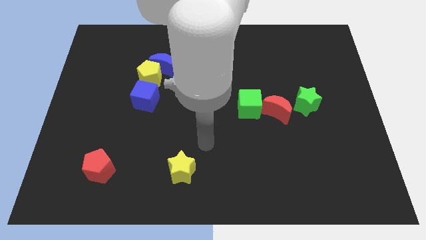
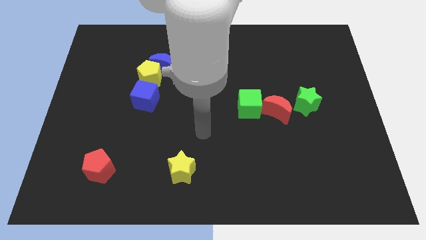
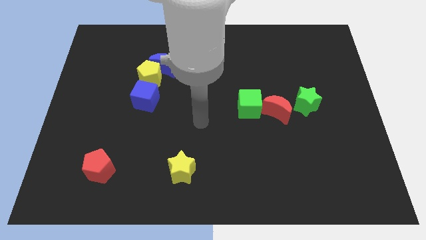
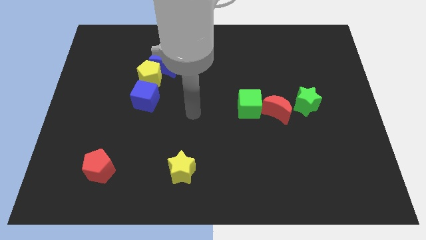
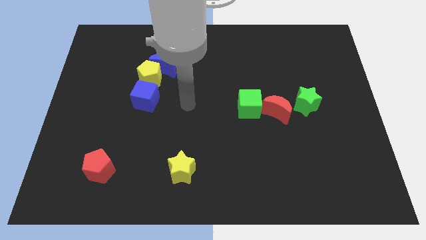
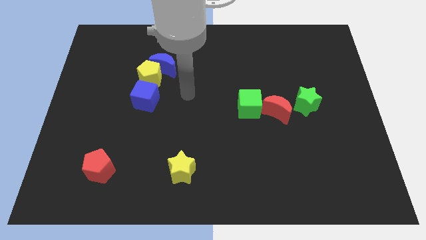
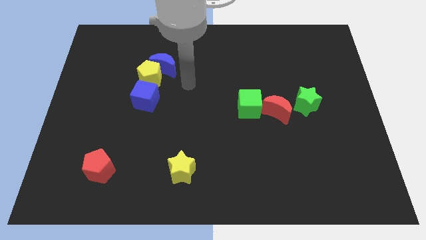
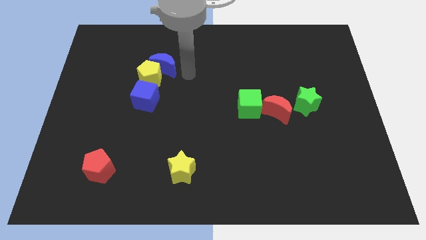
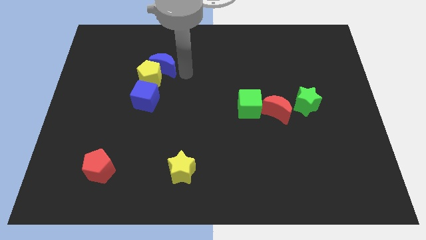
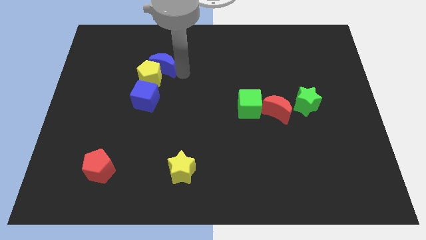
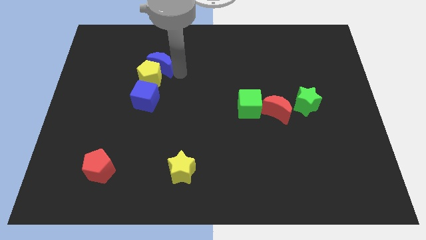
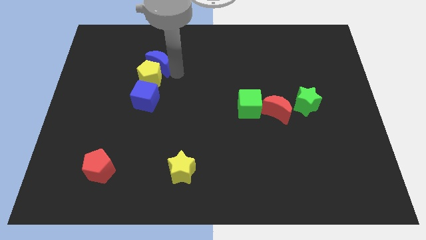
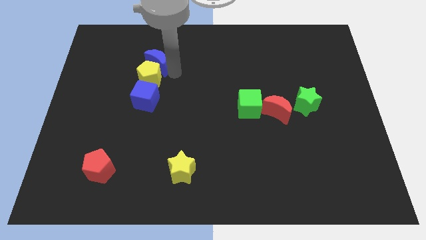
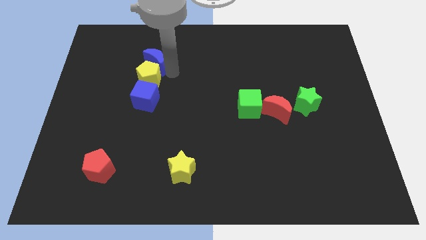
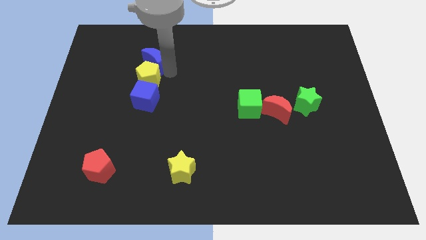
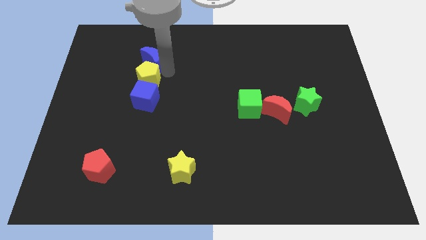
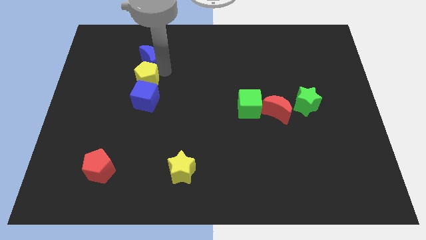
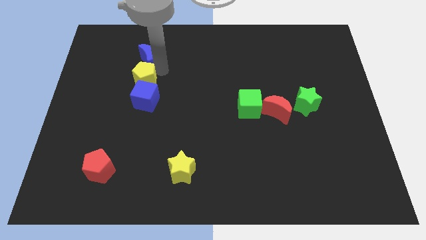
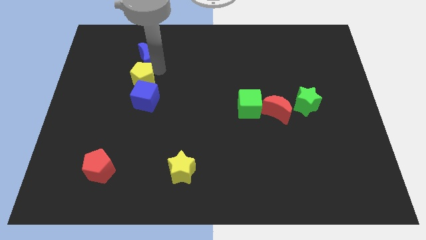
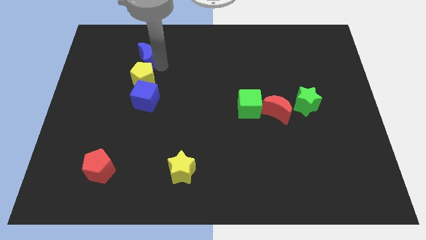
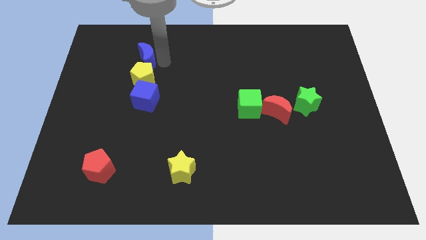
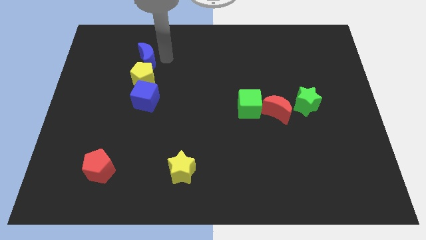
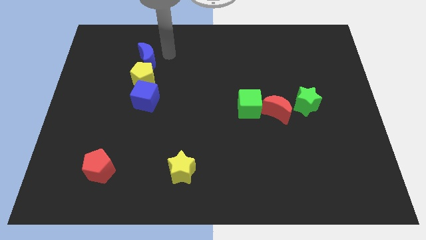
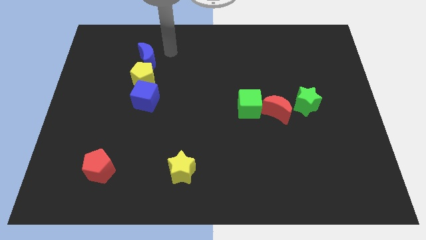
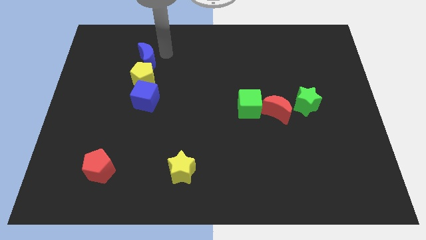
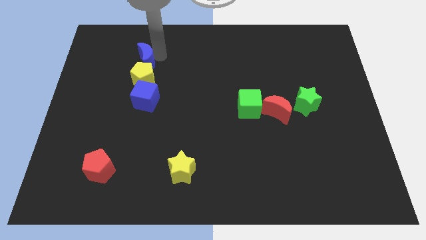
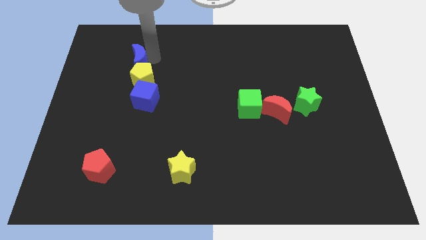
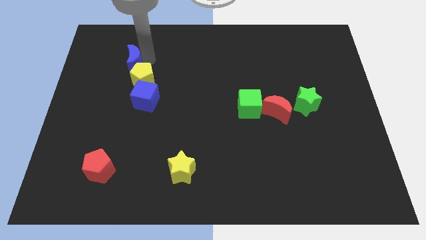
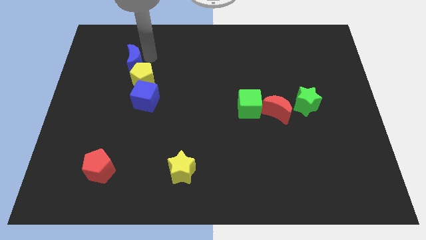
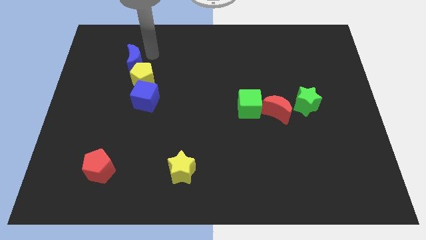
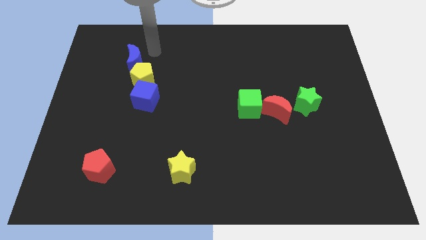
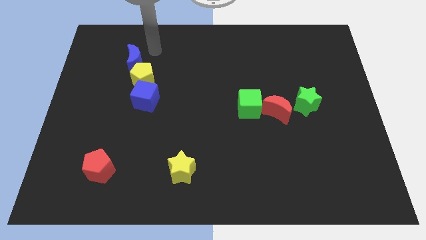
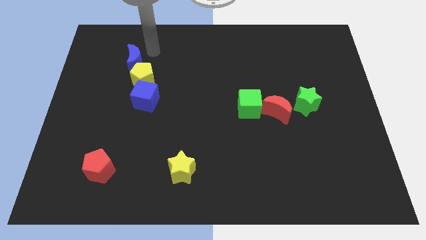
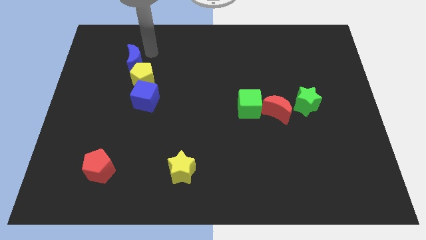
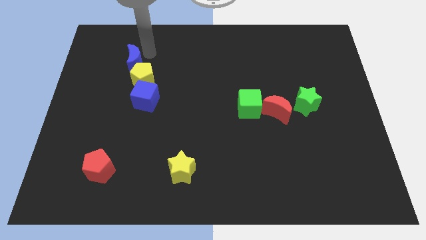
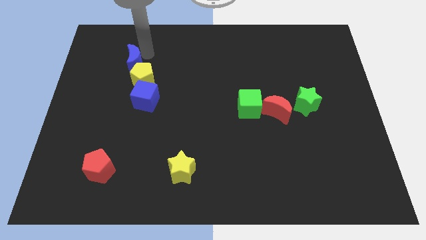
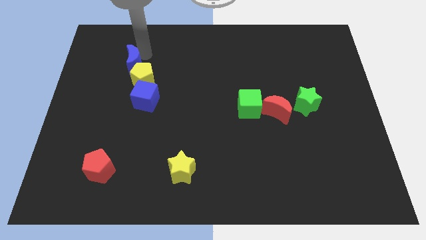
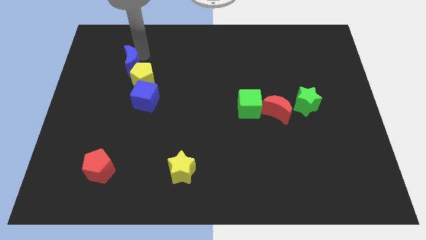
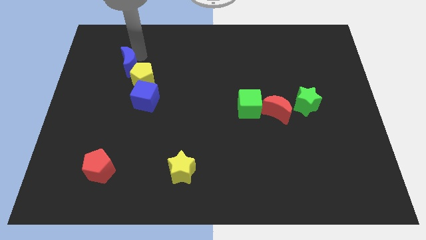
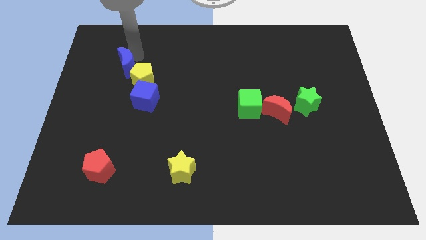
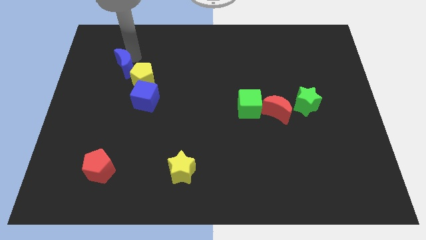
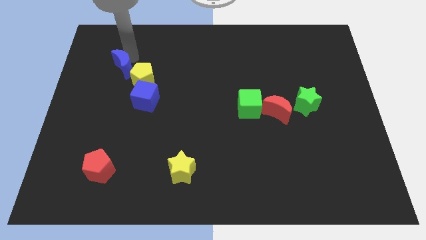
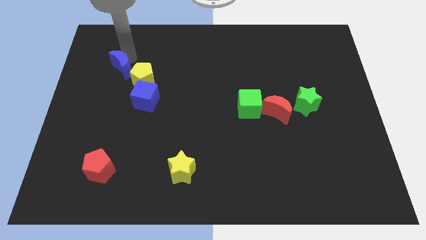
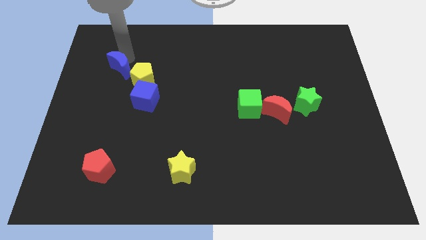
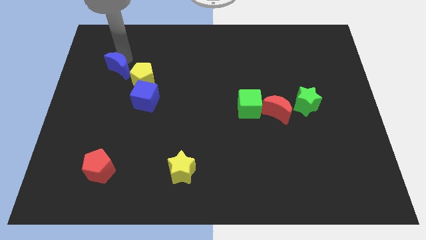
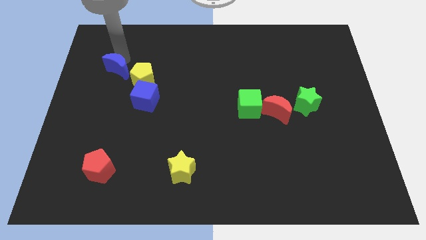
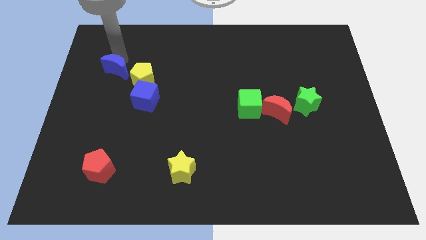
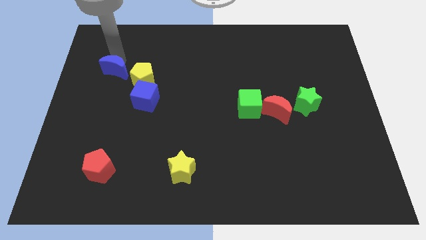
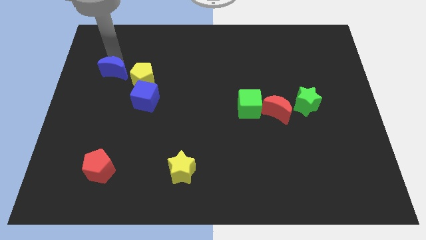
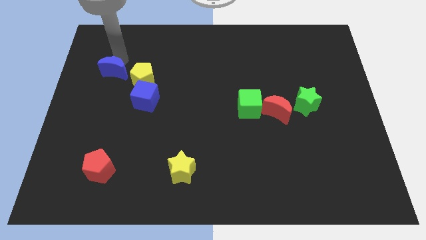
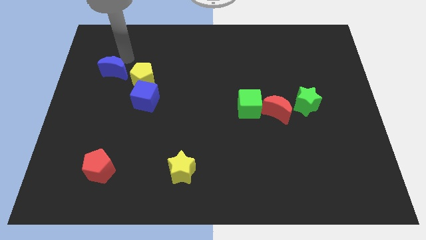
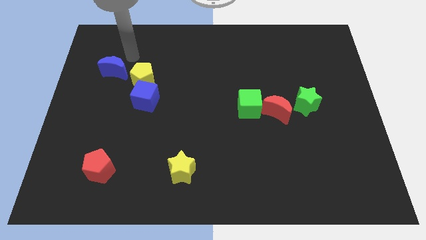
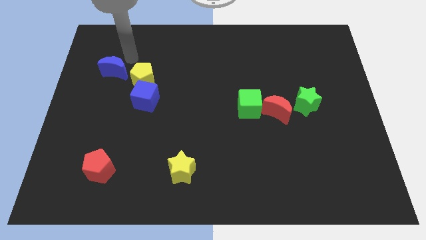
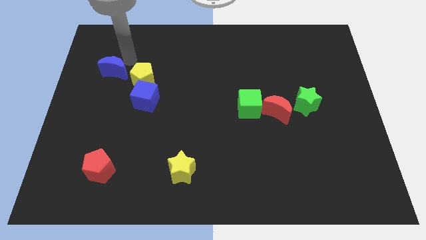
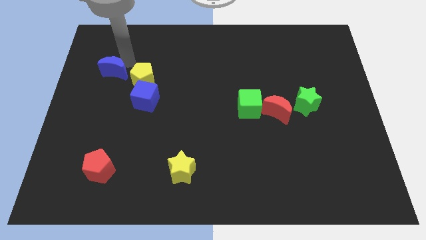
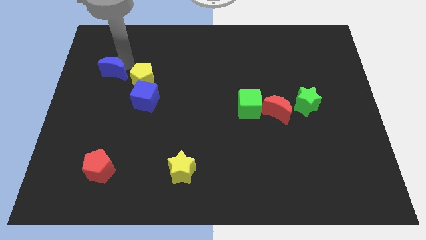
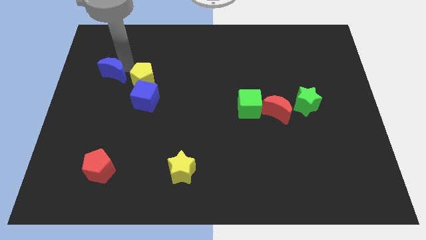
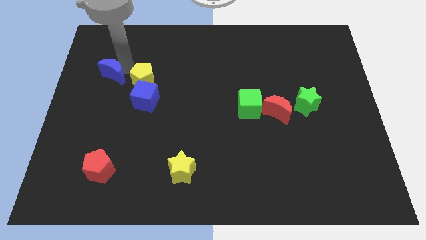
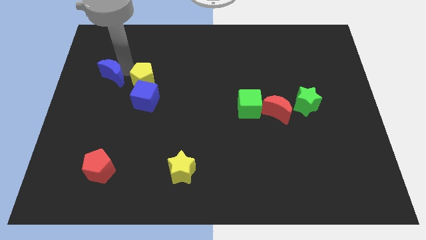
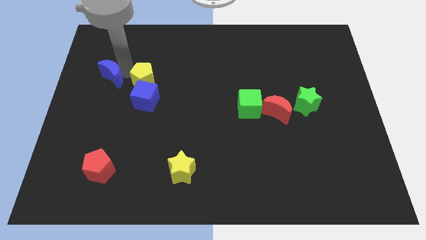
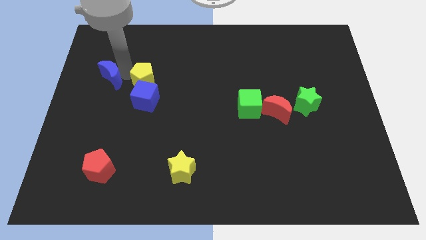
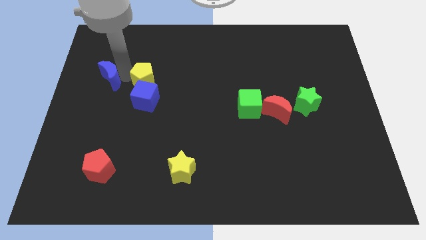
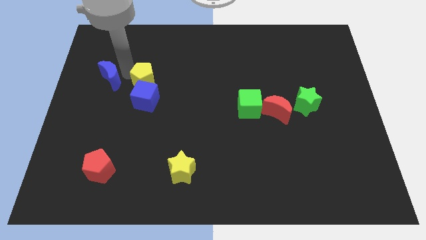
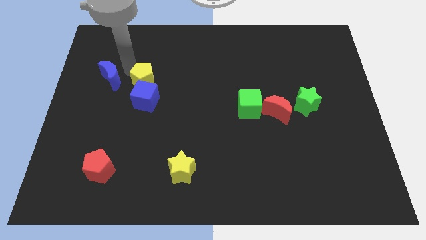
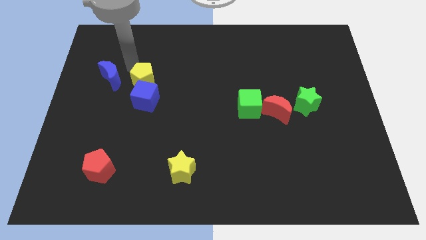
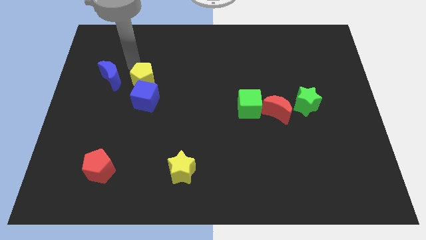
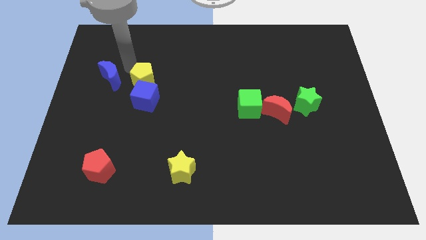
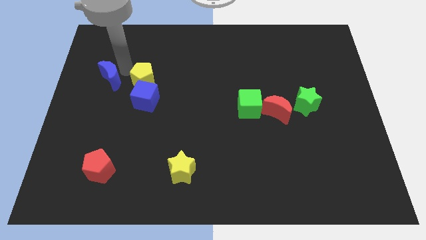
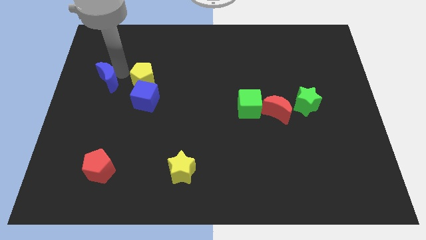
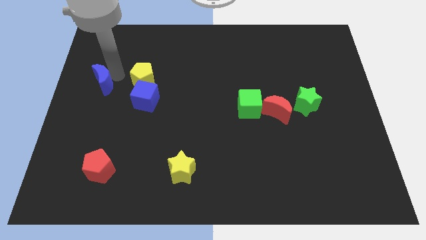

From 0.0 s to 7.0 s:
slide the blue moon to the left side

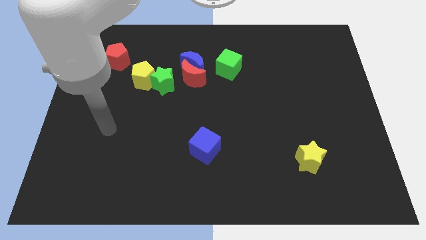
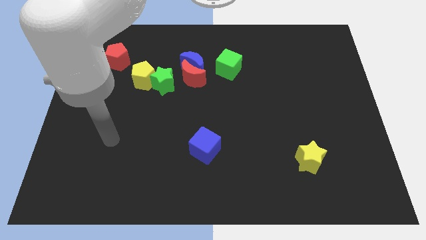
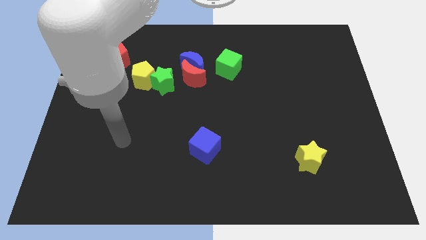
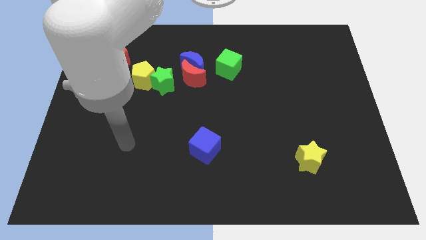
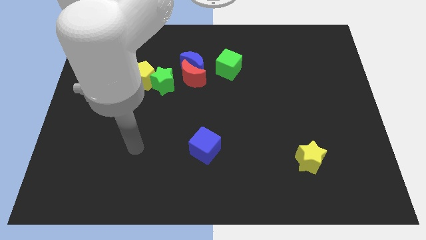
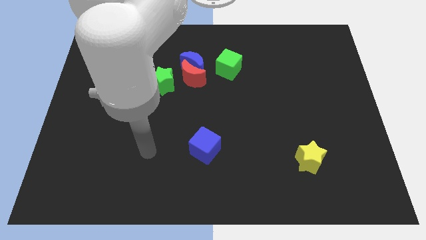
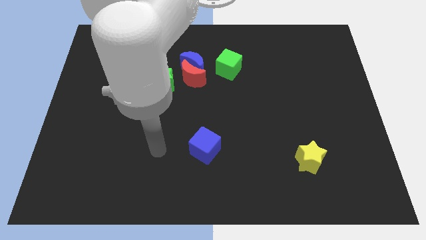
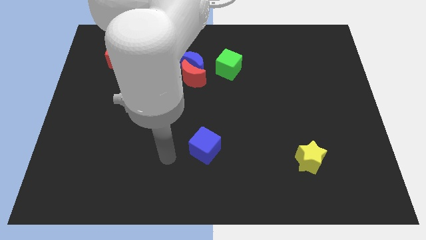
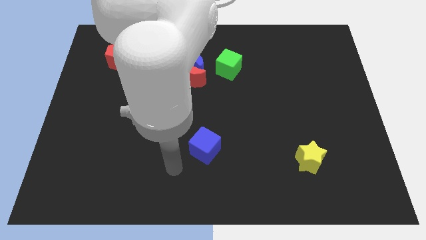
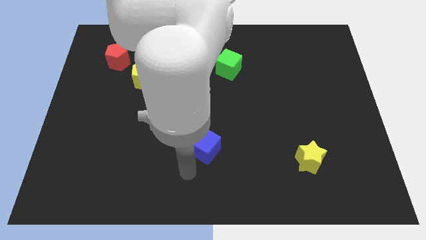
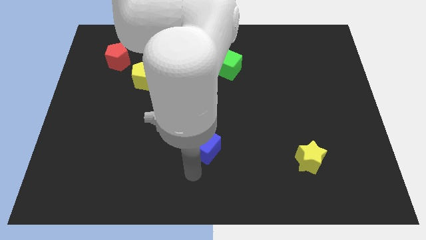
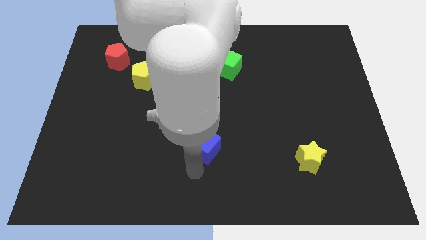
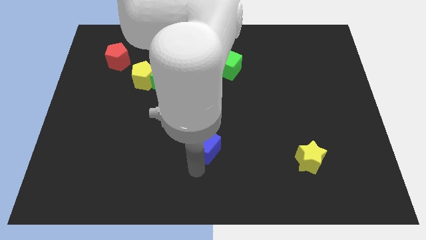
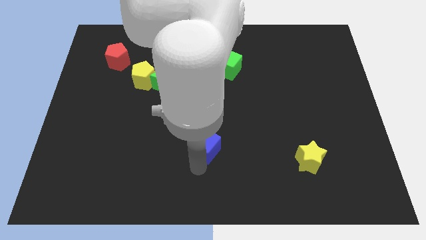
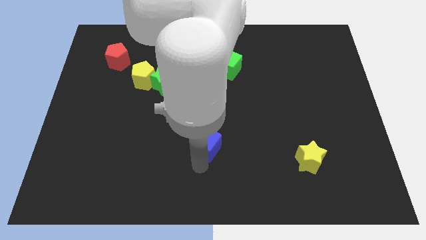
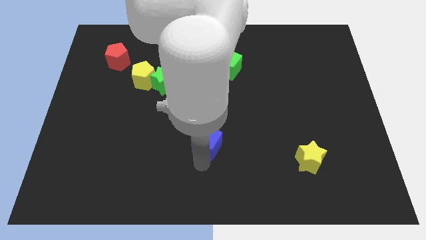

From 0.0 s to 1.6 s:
push the blue cube to the middle of the board
